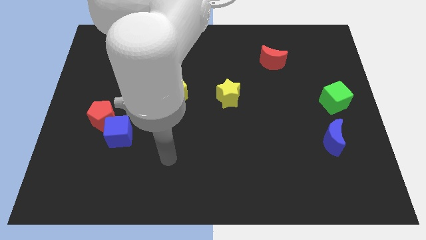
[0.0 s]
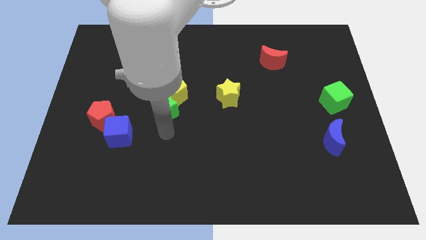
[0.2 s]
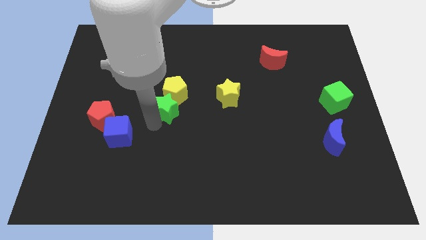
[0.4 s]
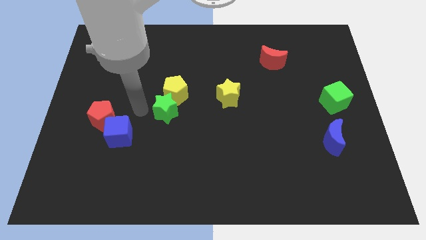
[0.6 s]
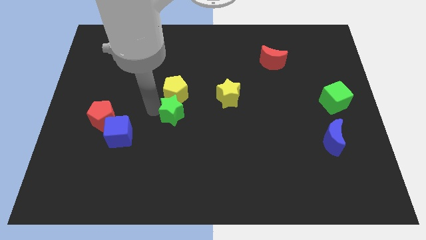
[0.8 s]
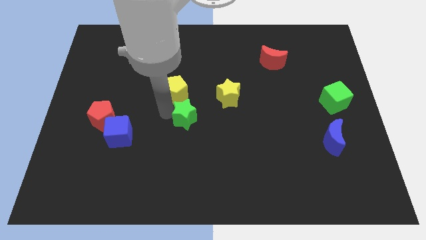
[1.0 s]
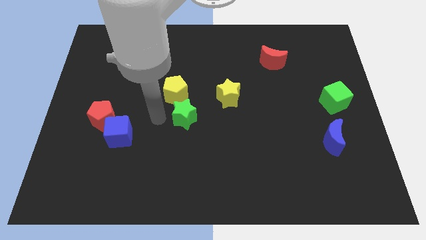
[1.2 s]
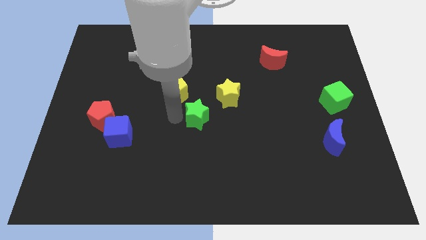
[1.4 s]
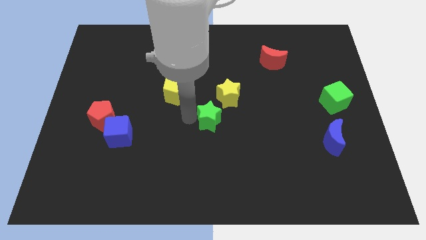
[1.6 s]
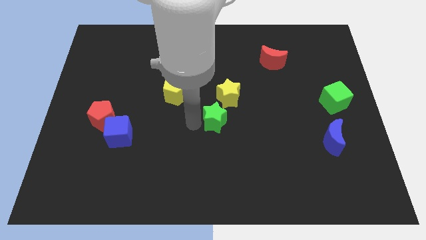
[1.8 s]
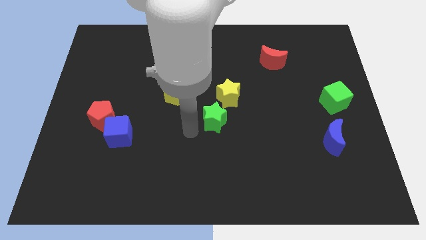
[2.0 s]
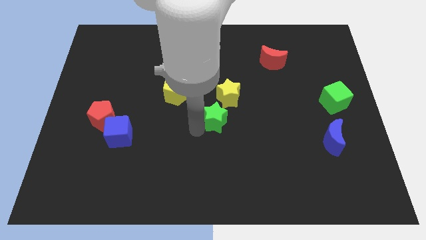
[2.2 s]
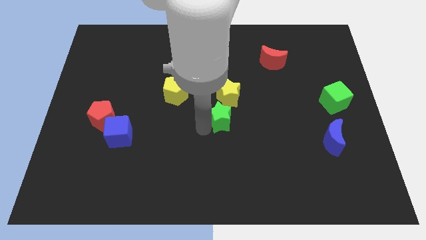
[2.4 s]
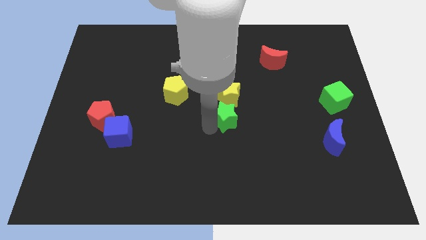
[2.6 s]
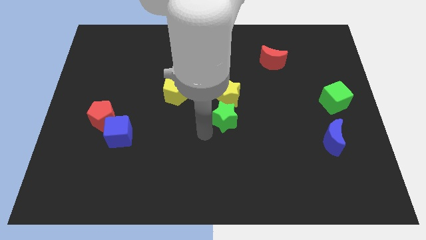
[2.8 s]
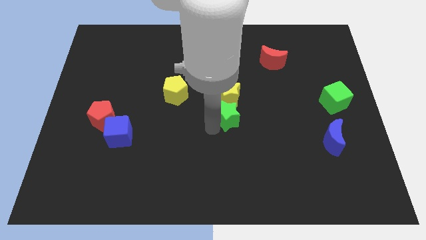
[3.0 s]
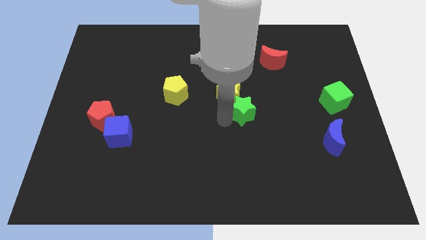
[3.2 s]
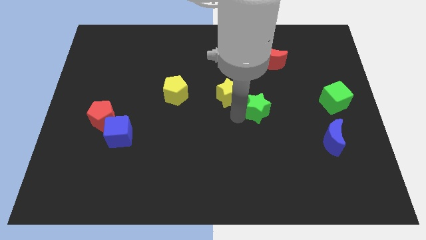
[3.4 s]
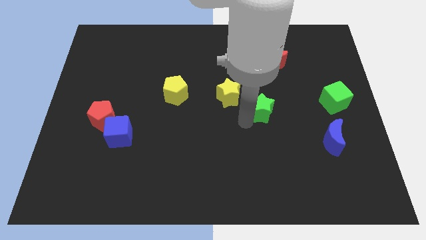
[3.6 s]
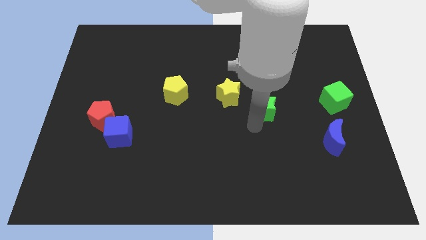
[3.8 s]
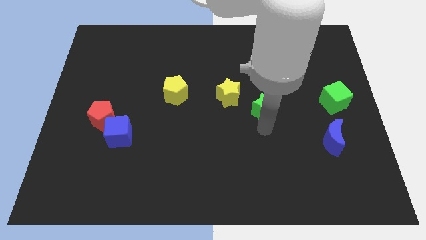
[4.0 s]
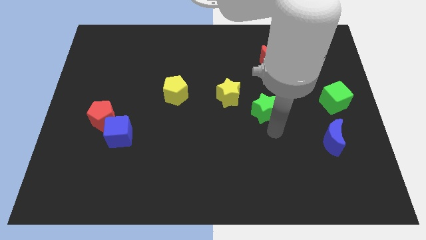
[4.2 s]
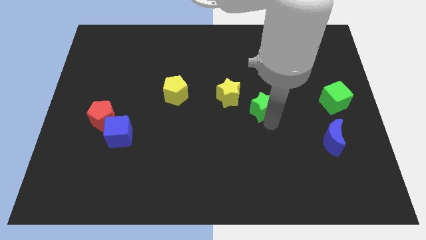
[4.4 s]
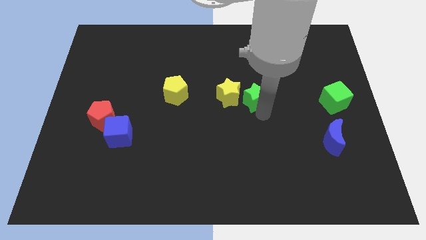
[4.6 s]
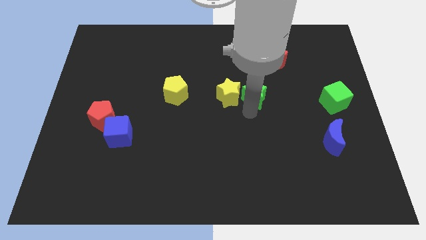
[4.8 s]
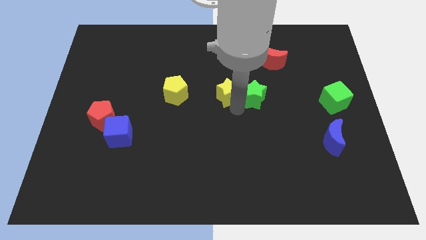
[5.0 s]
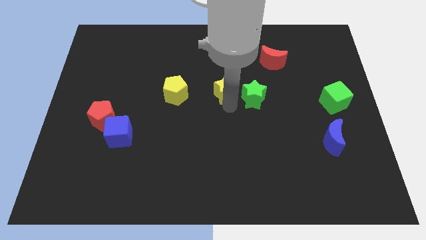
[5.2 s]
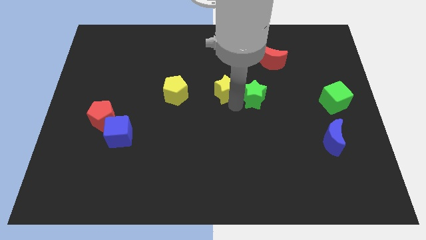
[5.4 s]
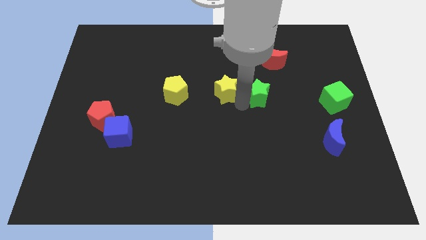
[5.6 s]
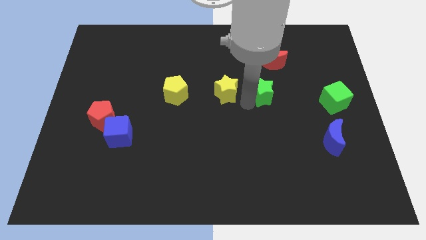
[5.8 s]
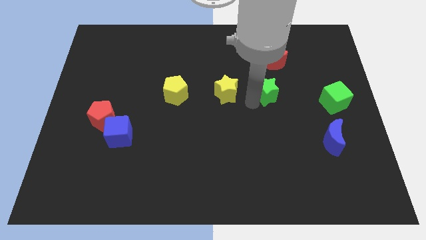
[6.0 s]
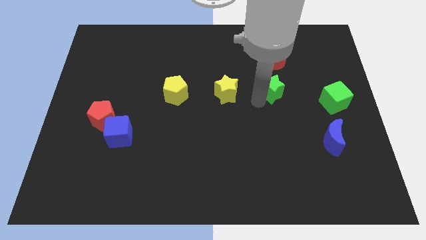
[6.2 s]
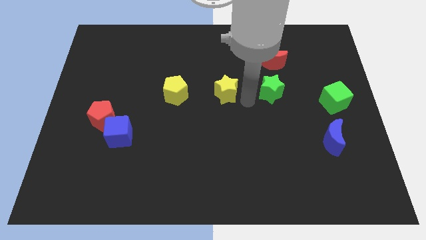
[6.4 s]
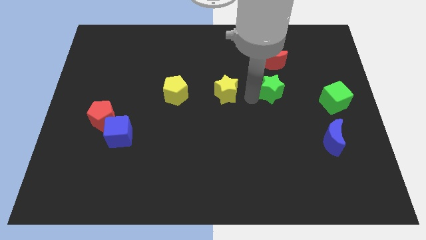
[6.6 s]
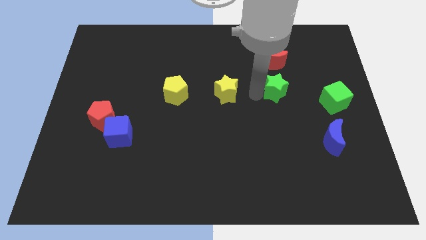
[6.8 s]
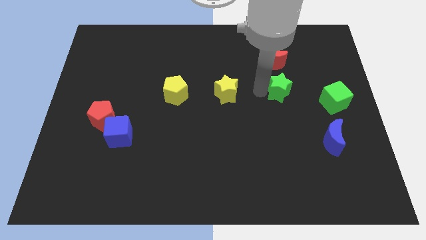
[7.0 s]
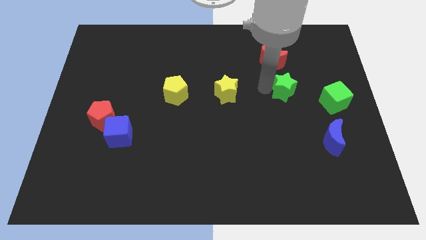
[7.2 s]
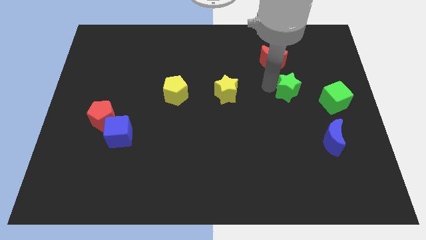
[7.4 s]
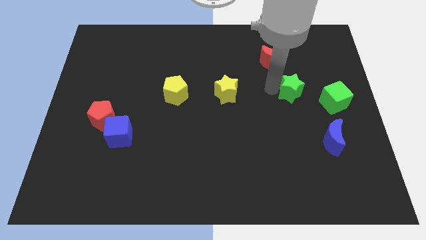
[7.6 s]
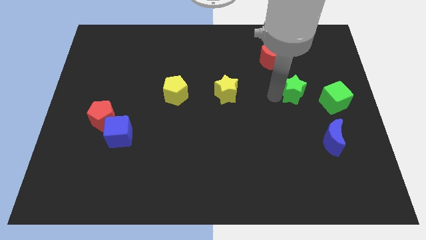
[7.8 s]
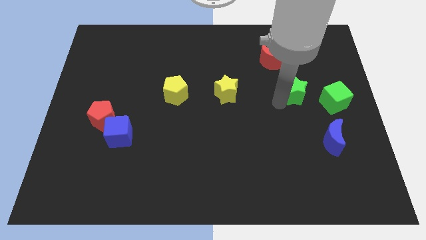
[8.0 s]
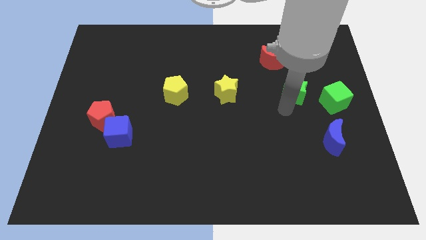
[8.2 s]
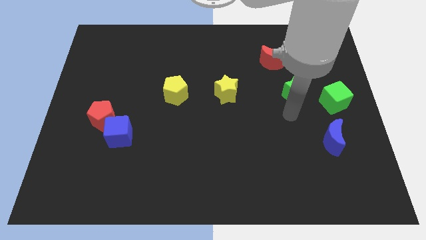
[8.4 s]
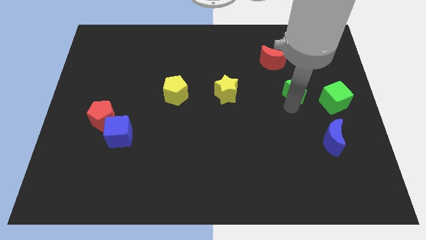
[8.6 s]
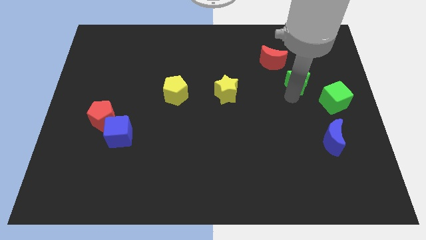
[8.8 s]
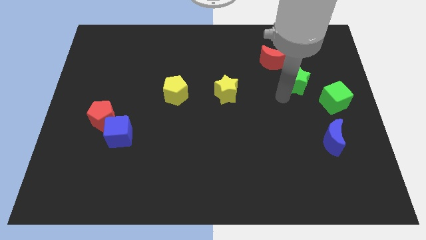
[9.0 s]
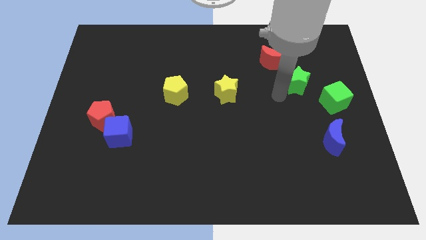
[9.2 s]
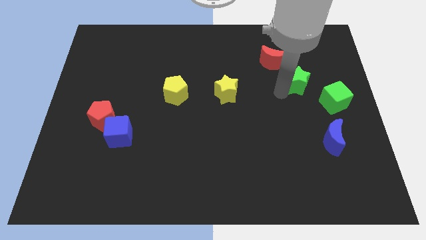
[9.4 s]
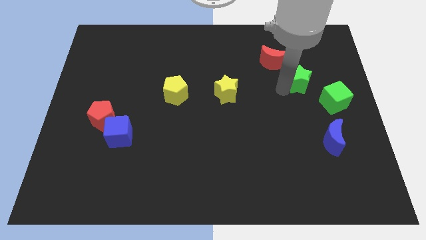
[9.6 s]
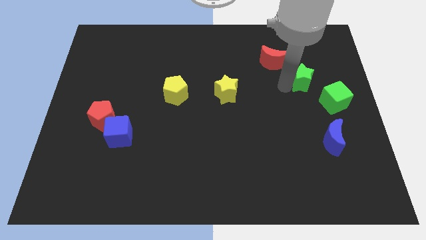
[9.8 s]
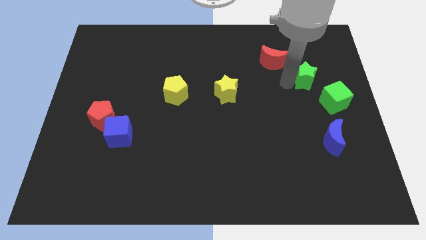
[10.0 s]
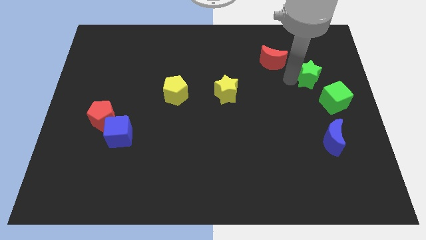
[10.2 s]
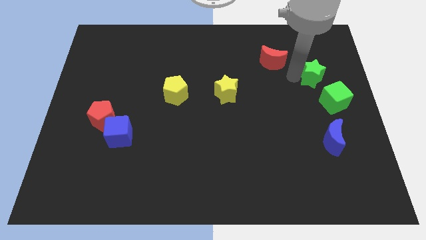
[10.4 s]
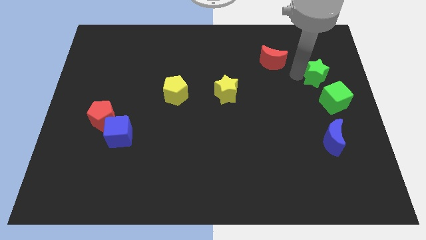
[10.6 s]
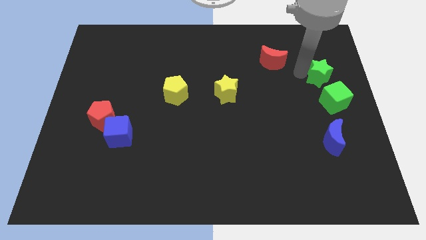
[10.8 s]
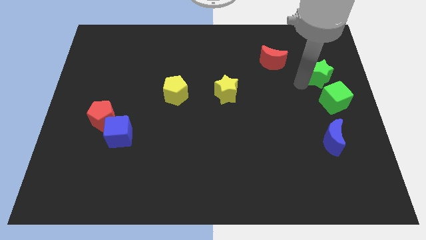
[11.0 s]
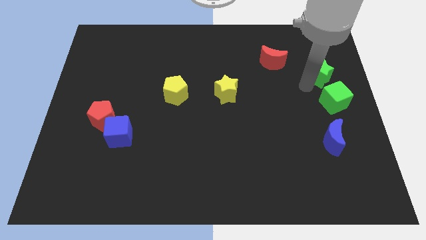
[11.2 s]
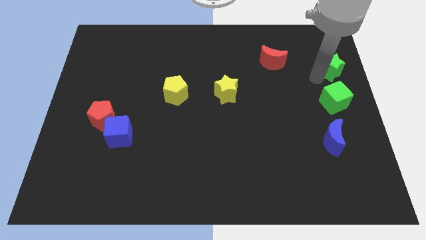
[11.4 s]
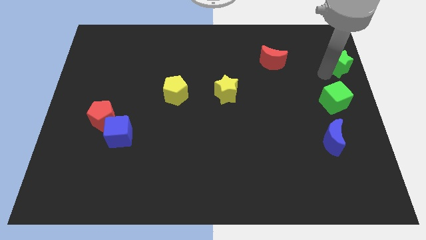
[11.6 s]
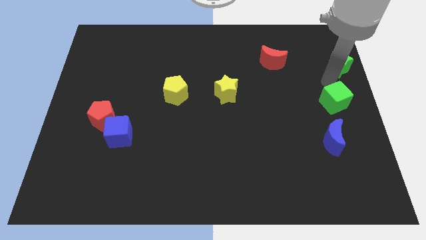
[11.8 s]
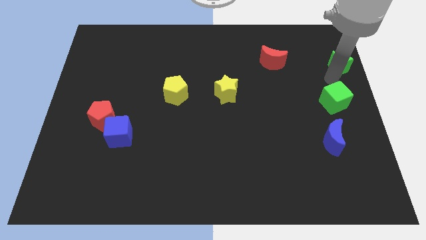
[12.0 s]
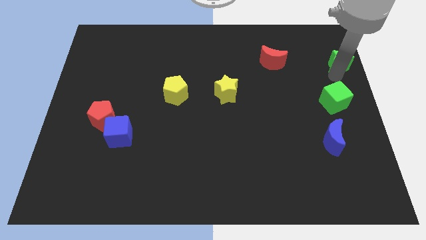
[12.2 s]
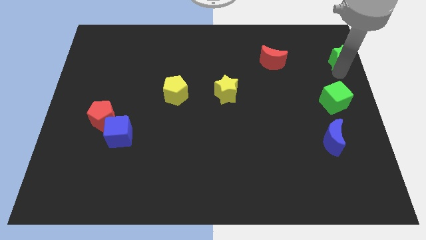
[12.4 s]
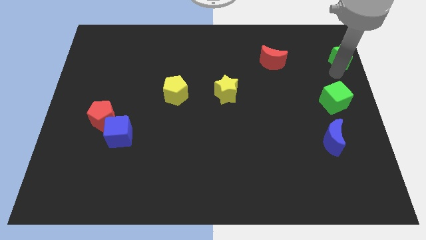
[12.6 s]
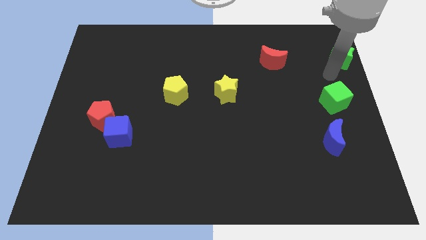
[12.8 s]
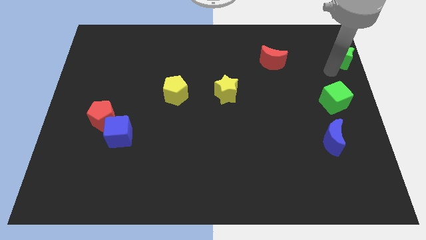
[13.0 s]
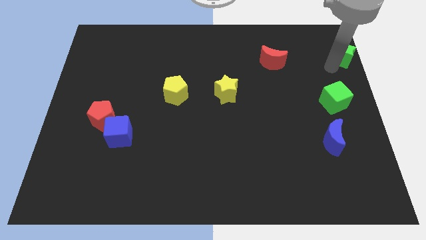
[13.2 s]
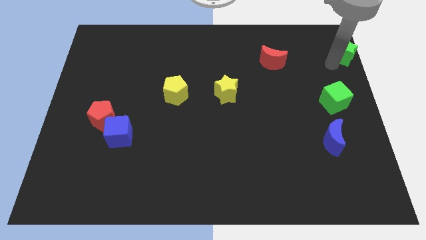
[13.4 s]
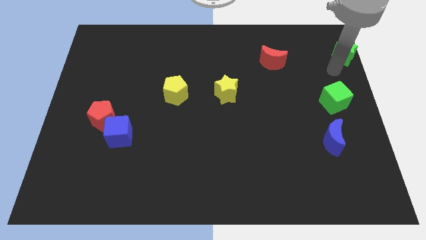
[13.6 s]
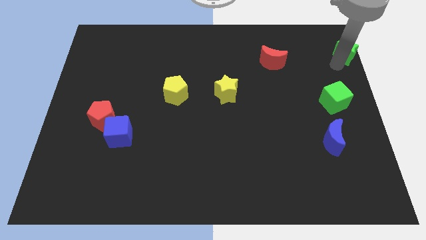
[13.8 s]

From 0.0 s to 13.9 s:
move the green star to the top right corner
